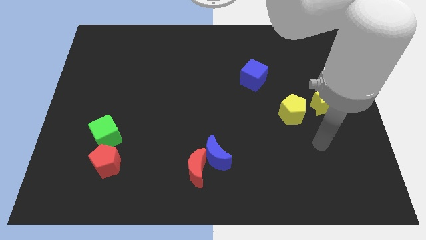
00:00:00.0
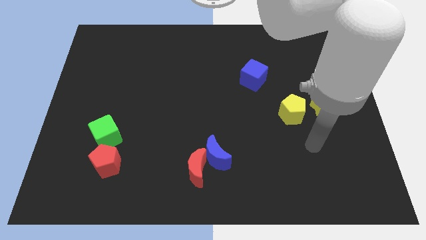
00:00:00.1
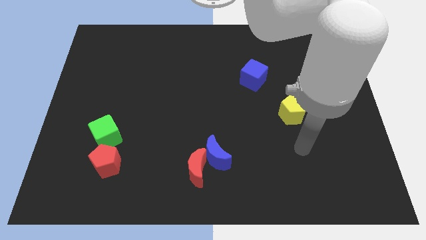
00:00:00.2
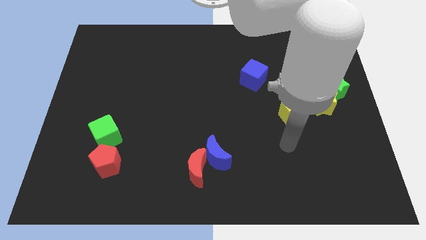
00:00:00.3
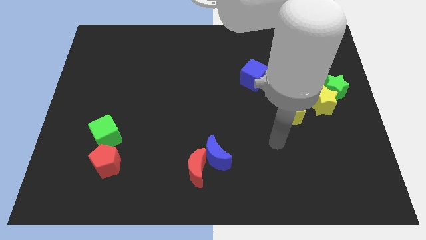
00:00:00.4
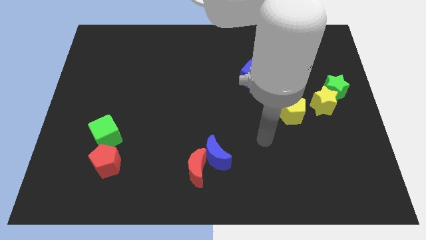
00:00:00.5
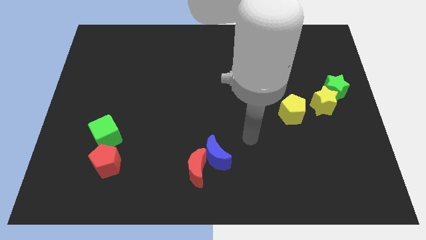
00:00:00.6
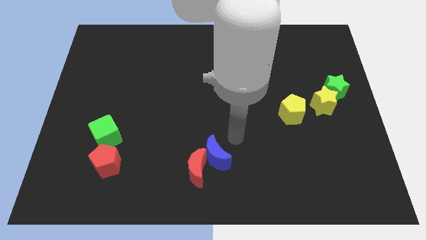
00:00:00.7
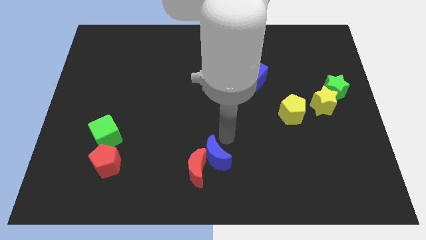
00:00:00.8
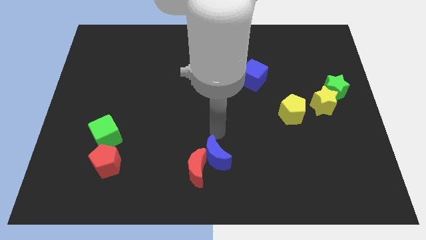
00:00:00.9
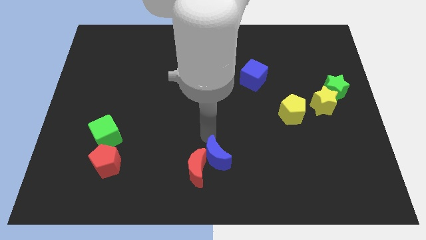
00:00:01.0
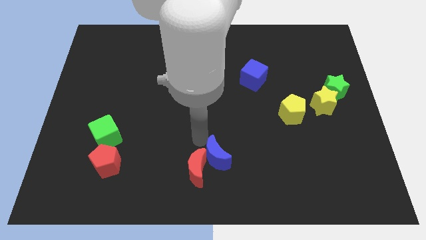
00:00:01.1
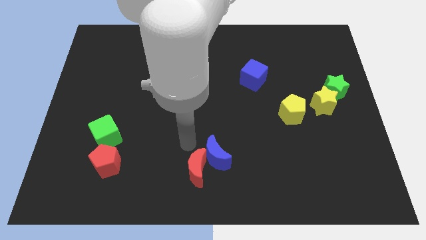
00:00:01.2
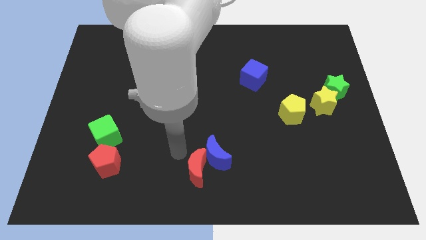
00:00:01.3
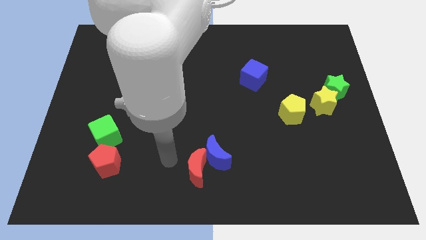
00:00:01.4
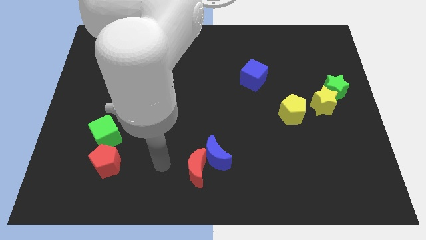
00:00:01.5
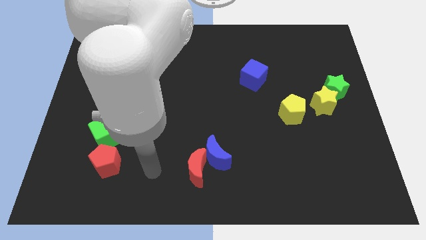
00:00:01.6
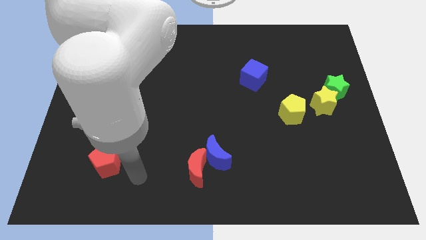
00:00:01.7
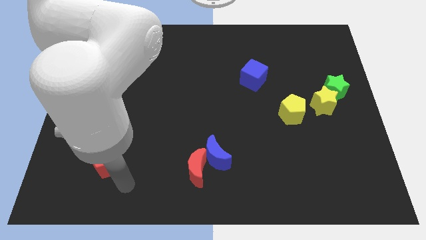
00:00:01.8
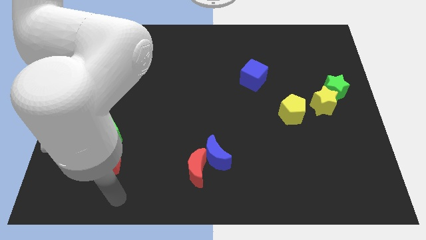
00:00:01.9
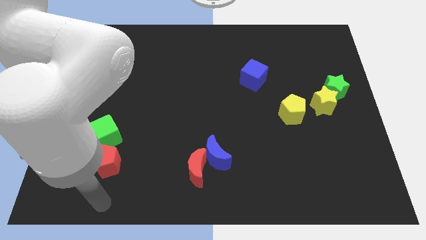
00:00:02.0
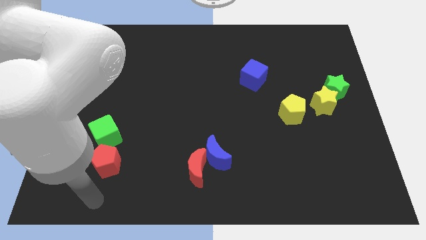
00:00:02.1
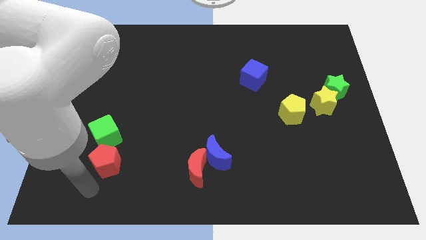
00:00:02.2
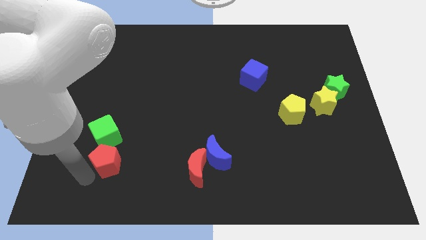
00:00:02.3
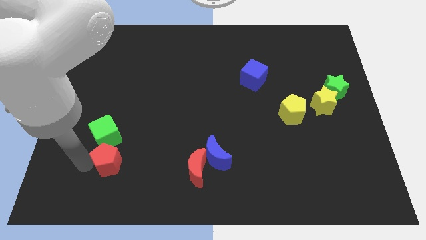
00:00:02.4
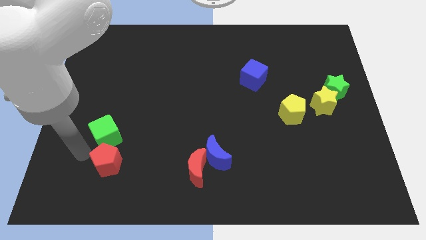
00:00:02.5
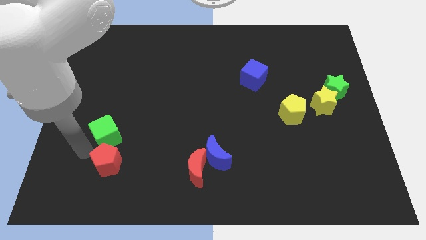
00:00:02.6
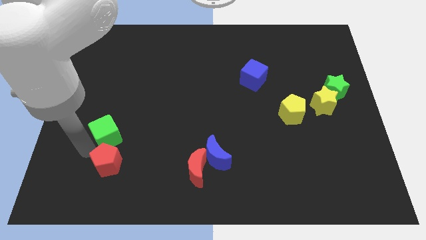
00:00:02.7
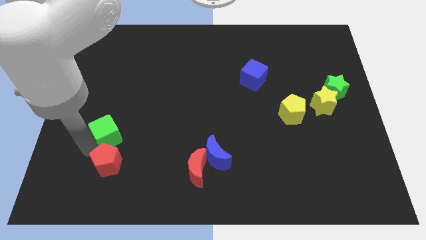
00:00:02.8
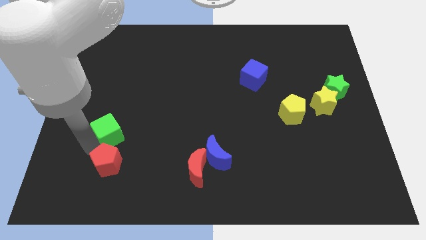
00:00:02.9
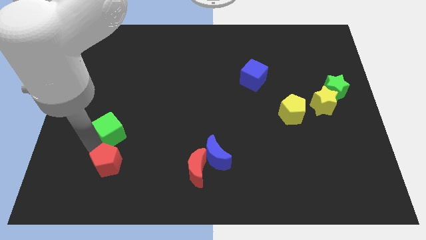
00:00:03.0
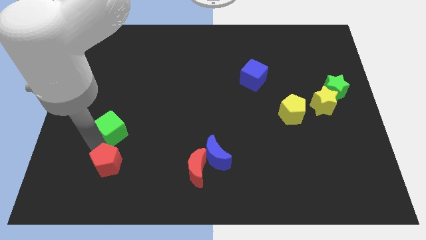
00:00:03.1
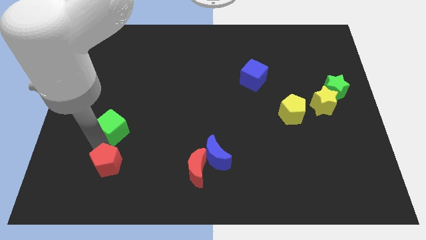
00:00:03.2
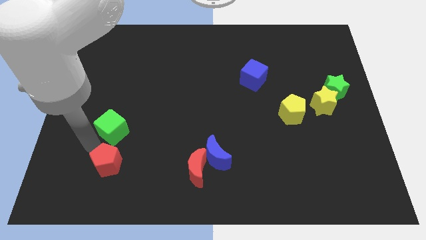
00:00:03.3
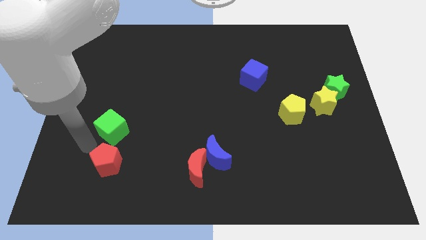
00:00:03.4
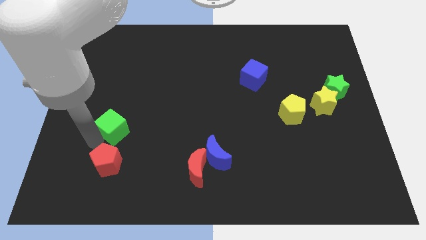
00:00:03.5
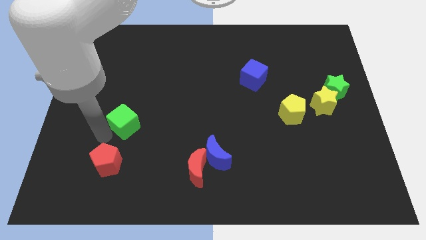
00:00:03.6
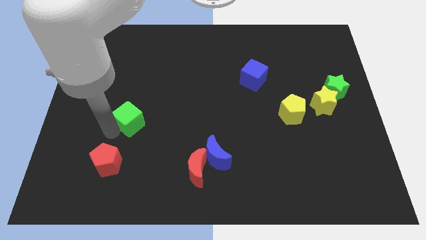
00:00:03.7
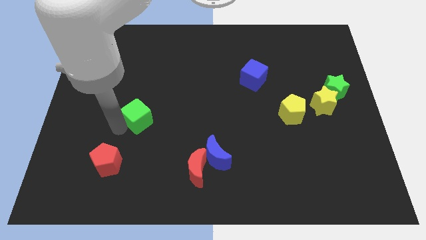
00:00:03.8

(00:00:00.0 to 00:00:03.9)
slightly push the green cube upwards and right diagonally

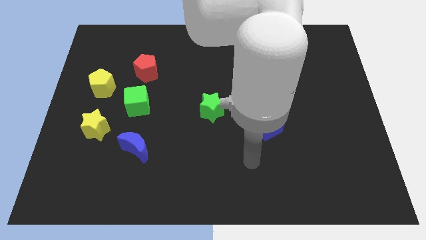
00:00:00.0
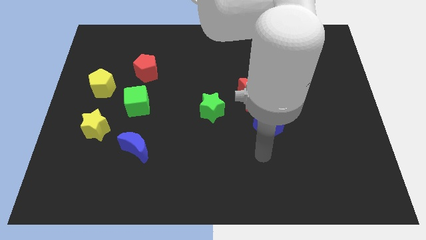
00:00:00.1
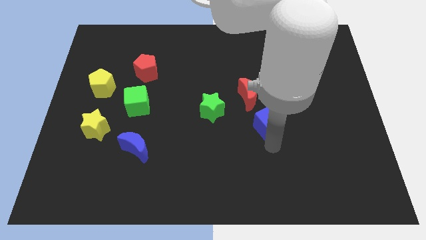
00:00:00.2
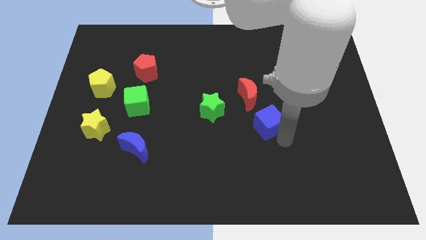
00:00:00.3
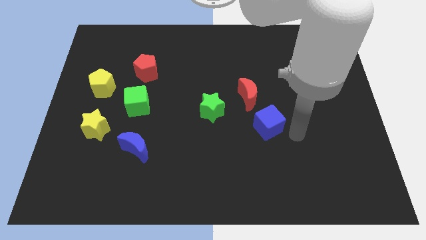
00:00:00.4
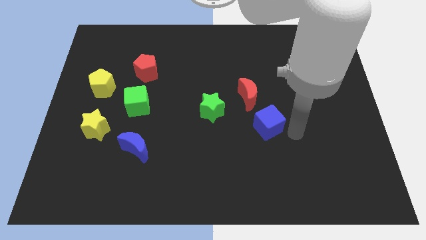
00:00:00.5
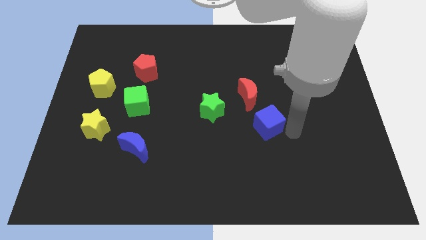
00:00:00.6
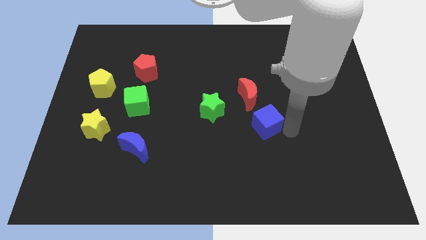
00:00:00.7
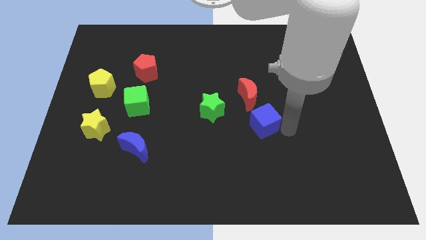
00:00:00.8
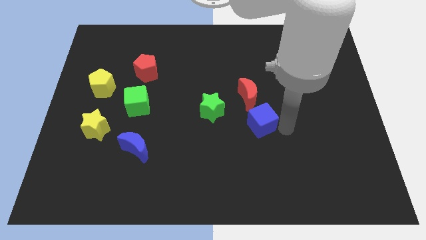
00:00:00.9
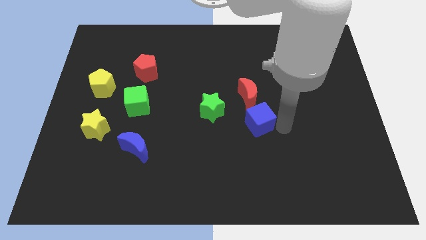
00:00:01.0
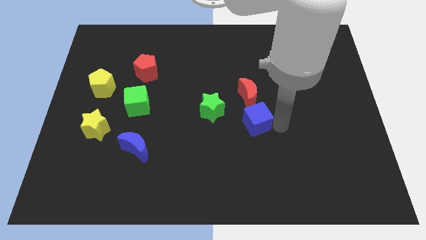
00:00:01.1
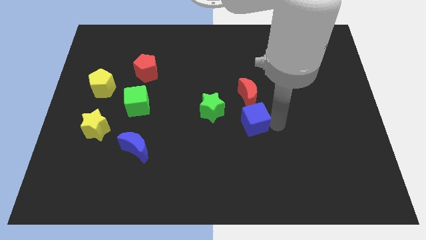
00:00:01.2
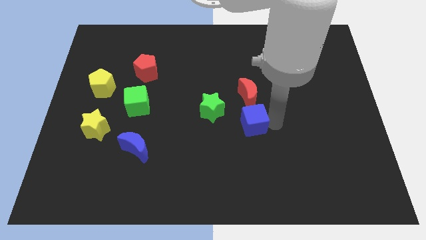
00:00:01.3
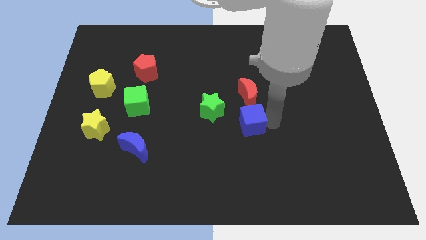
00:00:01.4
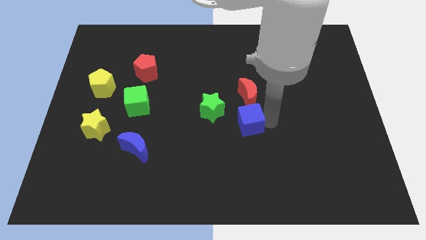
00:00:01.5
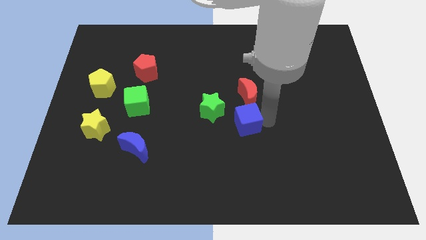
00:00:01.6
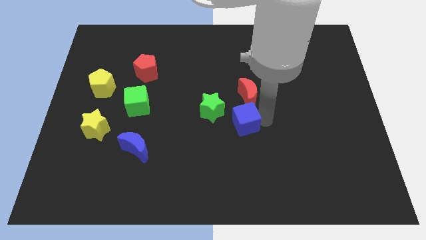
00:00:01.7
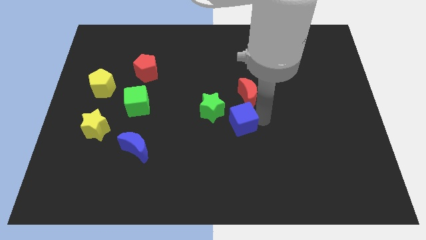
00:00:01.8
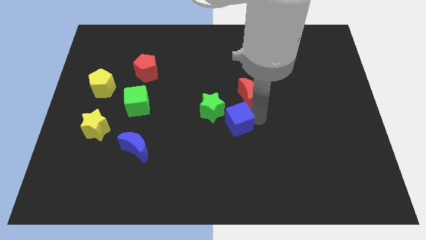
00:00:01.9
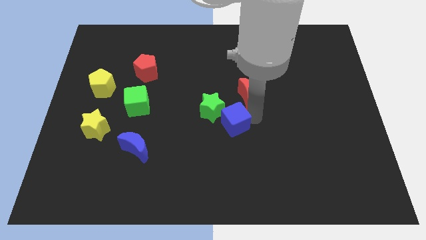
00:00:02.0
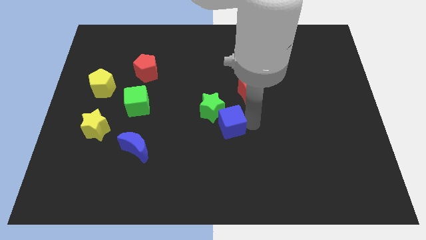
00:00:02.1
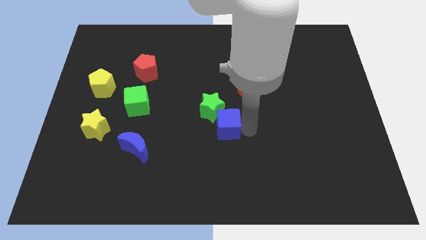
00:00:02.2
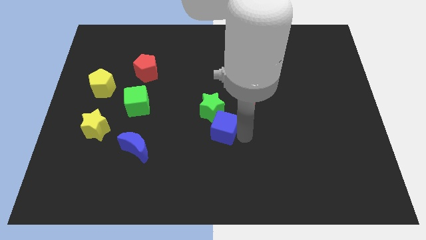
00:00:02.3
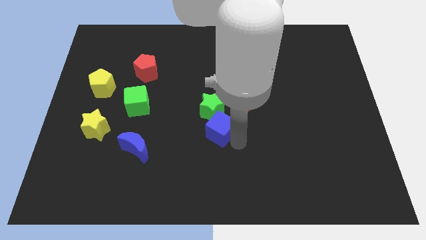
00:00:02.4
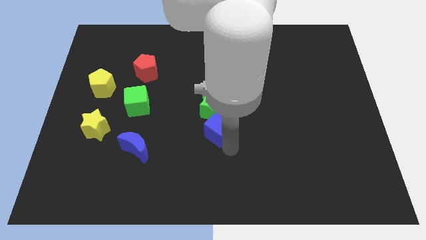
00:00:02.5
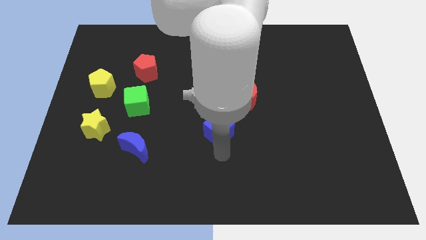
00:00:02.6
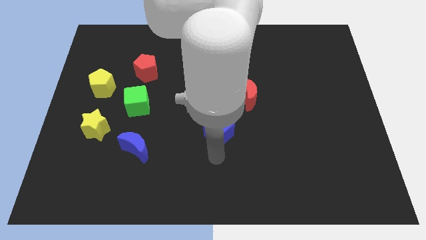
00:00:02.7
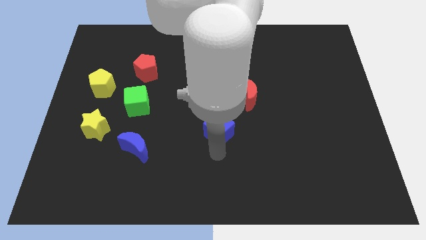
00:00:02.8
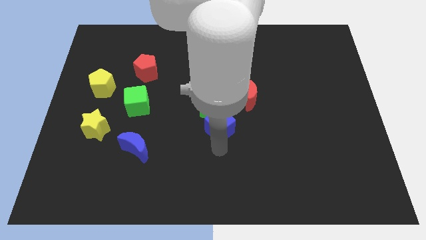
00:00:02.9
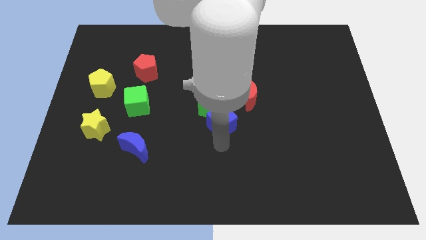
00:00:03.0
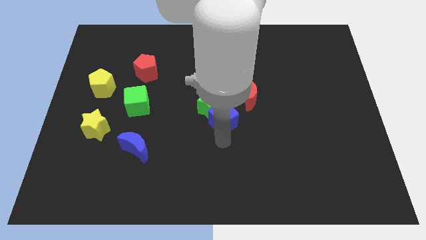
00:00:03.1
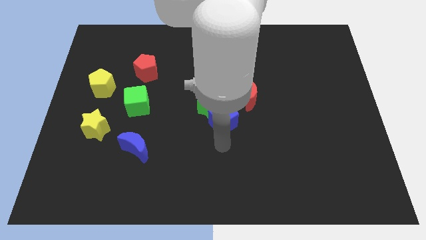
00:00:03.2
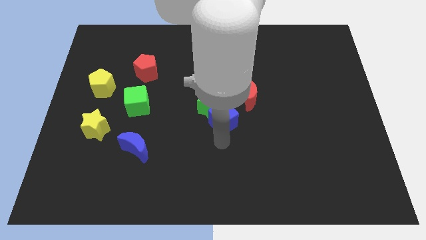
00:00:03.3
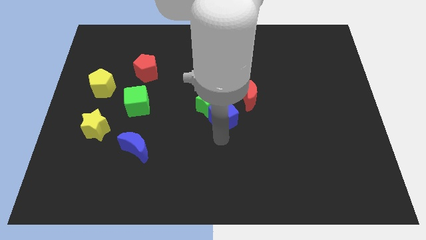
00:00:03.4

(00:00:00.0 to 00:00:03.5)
slightly slide the blue cube up and left diagonally

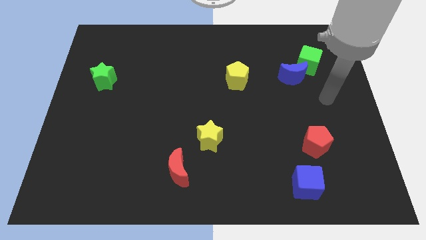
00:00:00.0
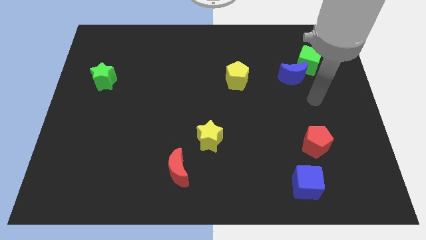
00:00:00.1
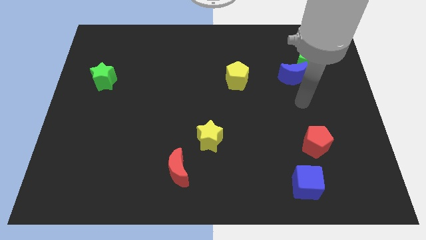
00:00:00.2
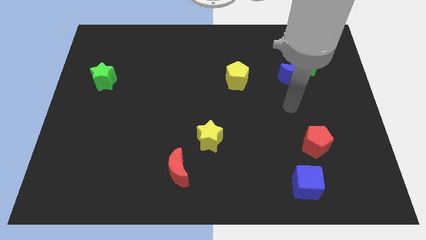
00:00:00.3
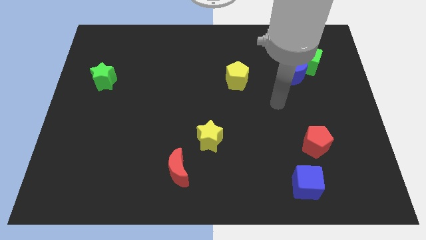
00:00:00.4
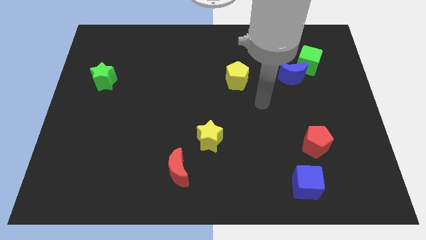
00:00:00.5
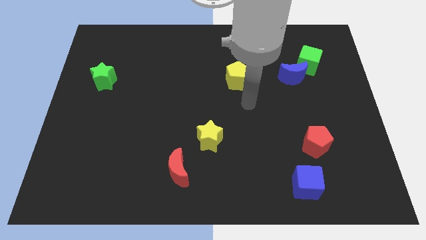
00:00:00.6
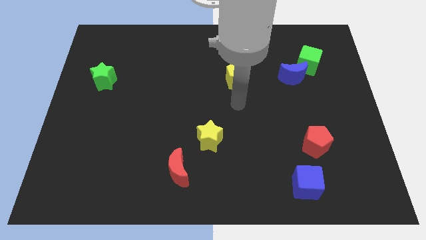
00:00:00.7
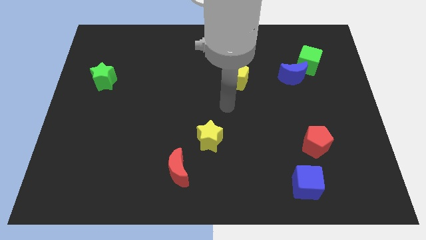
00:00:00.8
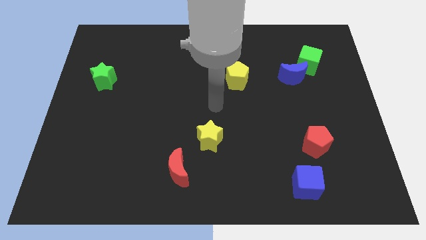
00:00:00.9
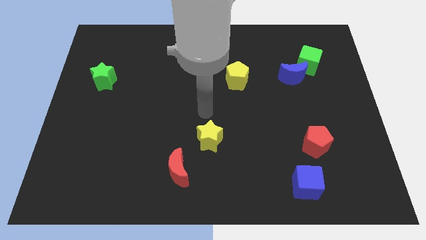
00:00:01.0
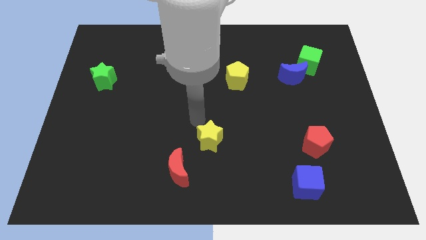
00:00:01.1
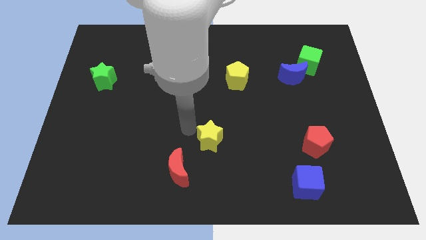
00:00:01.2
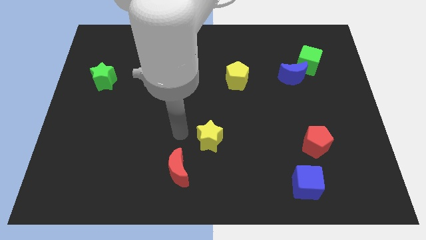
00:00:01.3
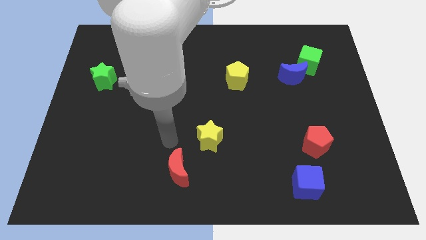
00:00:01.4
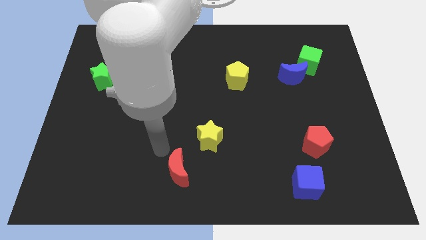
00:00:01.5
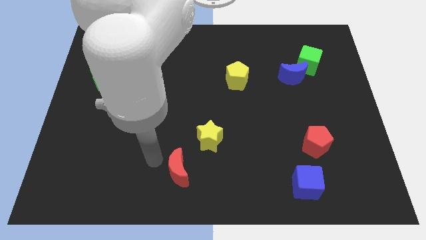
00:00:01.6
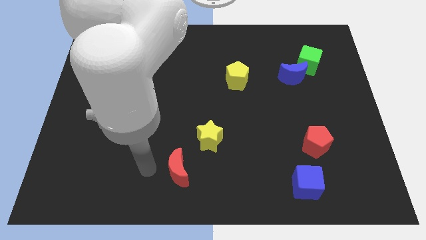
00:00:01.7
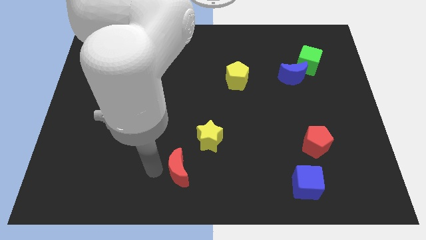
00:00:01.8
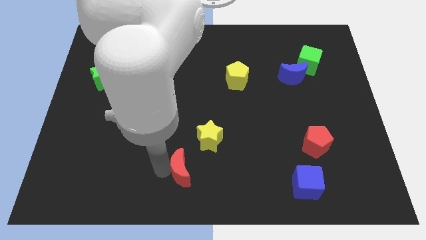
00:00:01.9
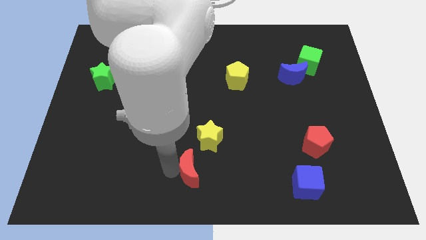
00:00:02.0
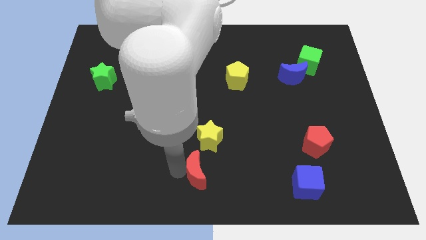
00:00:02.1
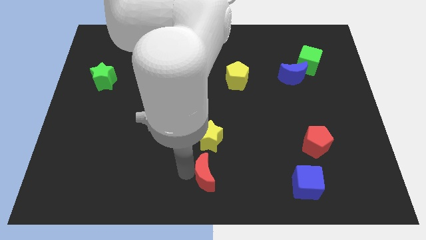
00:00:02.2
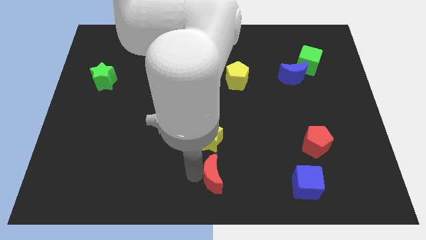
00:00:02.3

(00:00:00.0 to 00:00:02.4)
slightly move the red moon right
